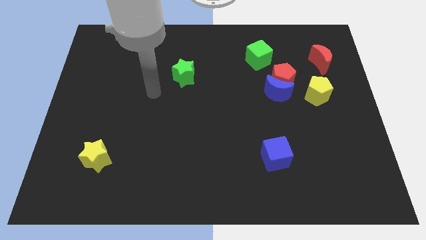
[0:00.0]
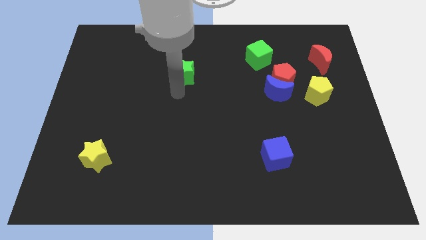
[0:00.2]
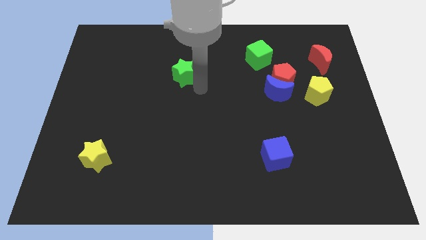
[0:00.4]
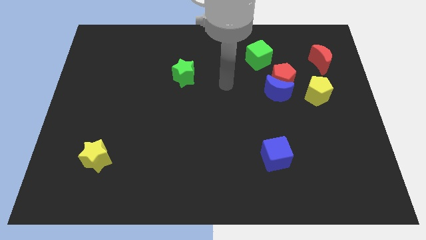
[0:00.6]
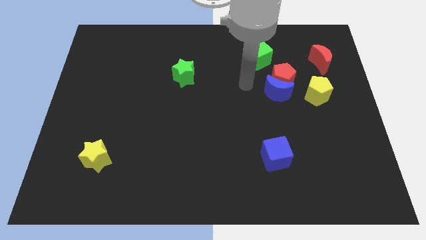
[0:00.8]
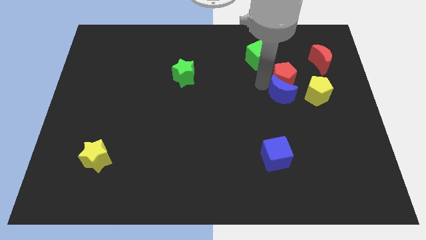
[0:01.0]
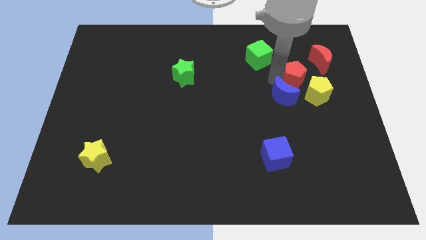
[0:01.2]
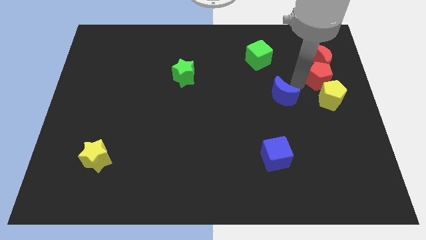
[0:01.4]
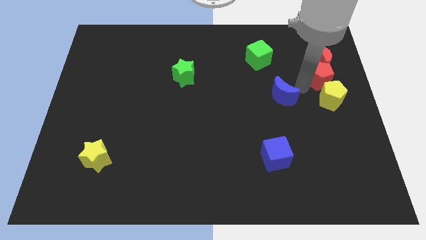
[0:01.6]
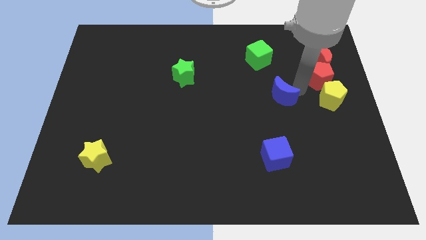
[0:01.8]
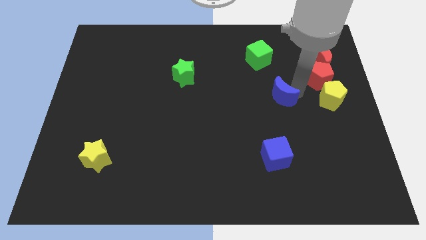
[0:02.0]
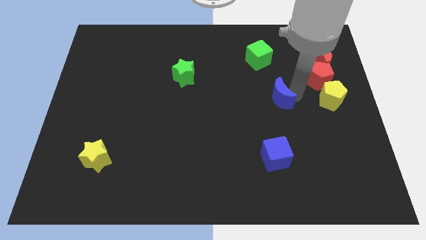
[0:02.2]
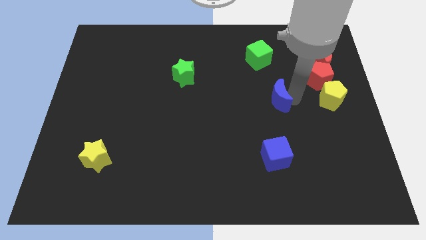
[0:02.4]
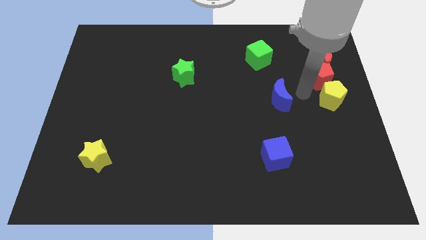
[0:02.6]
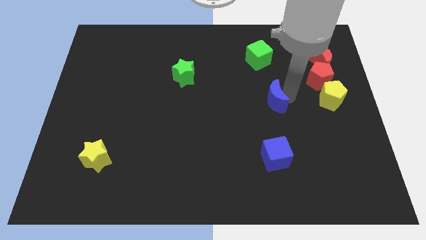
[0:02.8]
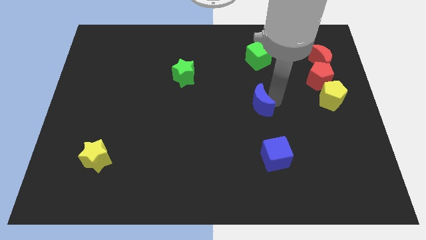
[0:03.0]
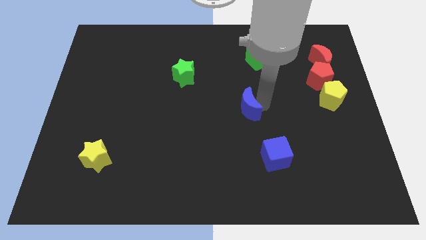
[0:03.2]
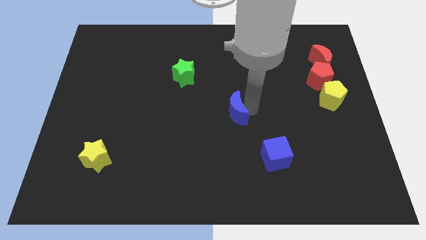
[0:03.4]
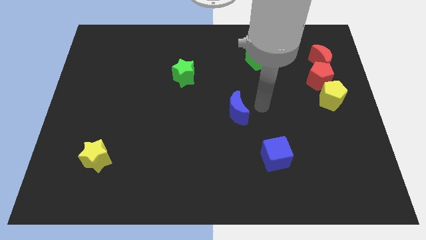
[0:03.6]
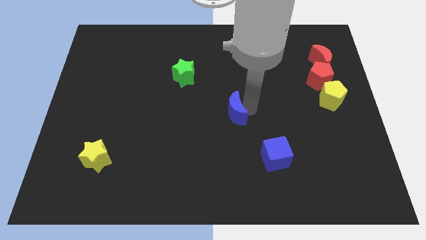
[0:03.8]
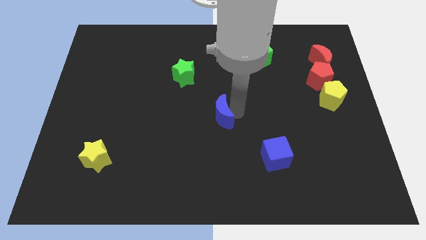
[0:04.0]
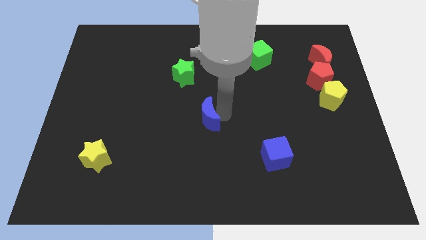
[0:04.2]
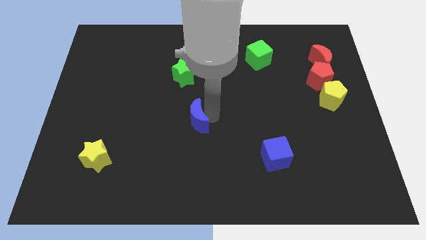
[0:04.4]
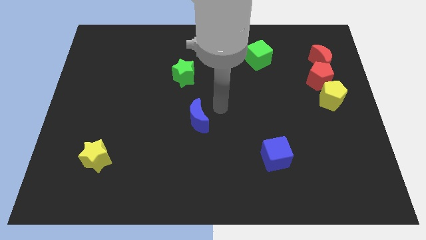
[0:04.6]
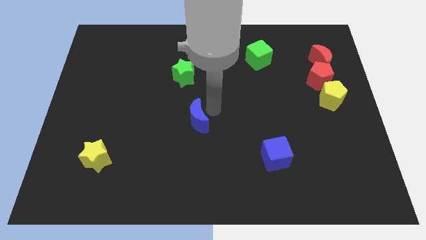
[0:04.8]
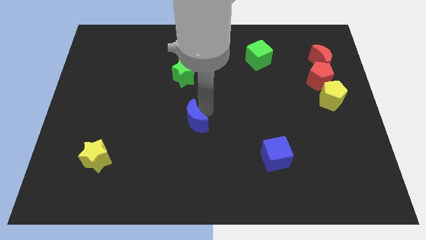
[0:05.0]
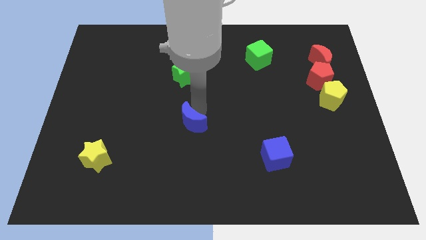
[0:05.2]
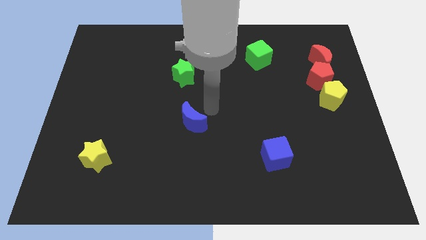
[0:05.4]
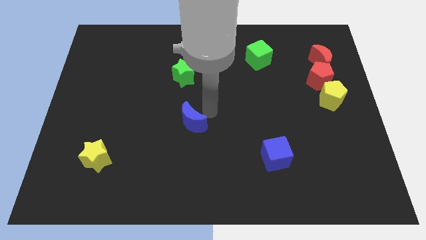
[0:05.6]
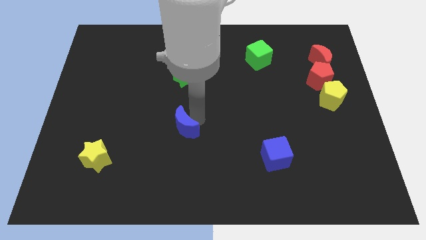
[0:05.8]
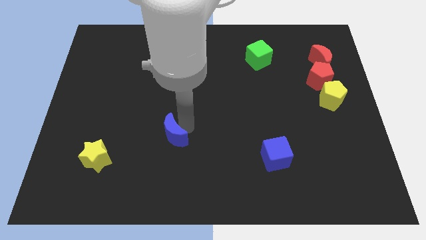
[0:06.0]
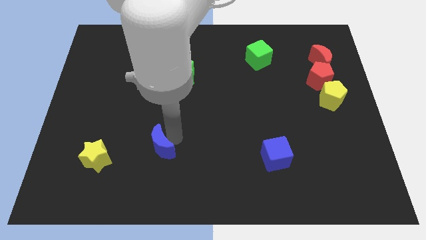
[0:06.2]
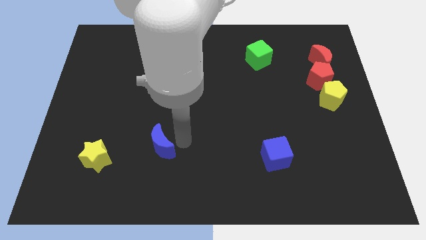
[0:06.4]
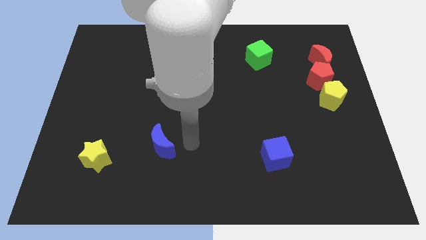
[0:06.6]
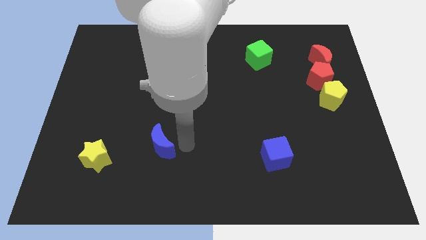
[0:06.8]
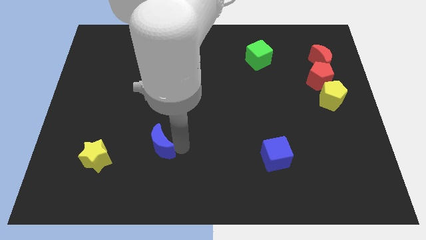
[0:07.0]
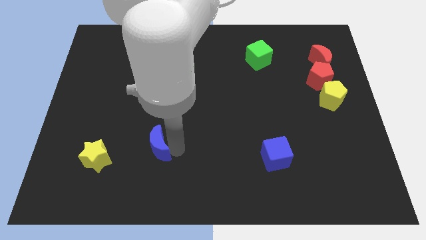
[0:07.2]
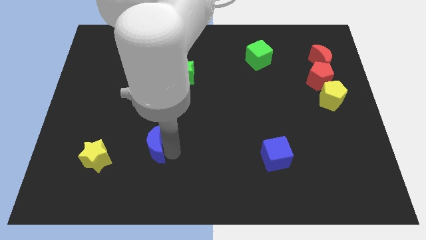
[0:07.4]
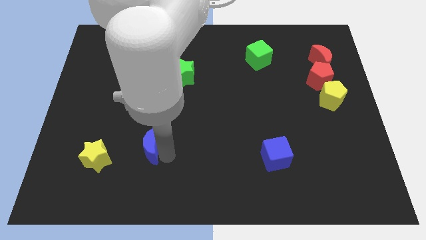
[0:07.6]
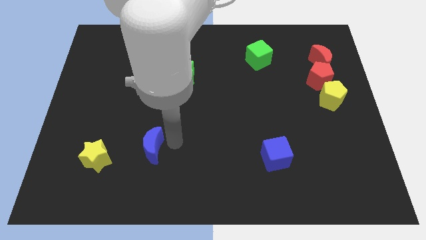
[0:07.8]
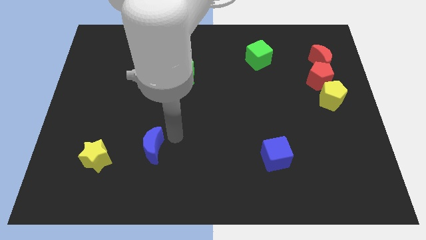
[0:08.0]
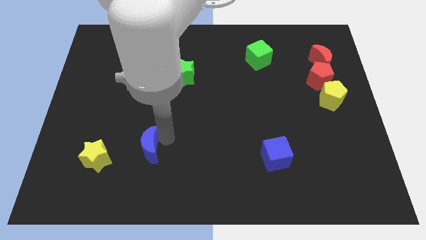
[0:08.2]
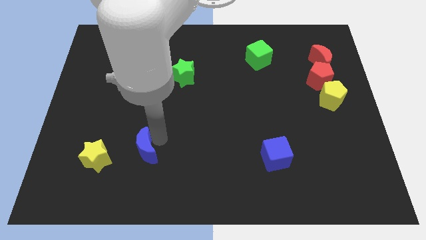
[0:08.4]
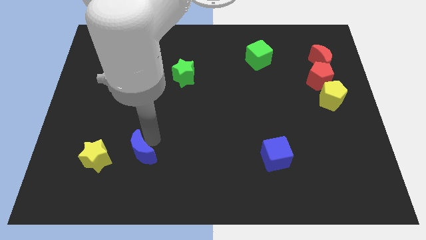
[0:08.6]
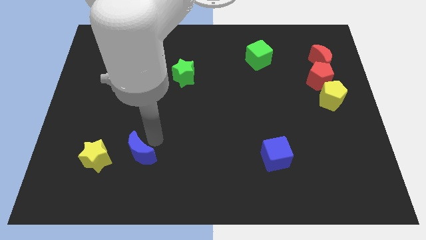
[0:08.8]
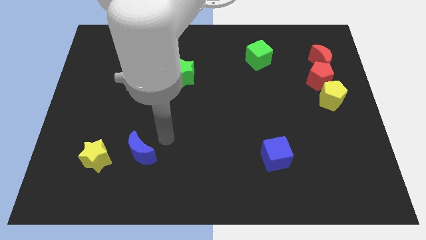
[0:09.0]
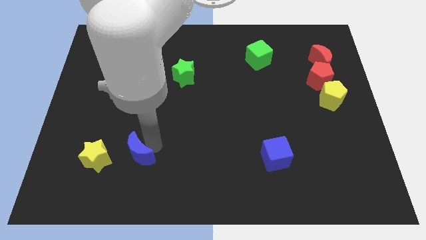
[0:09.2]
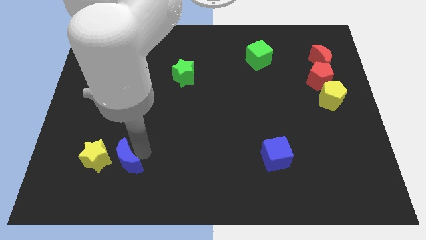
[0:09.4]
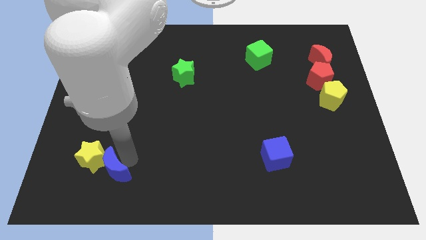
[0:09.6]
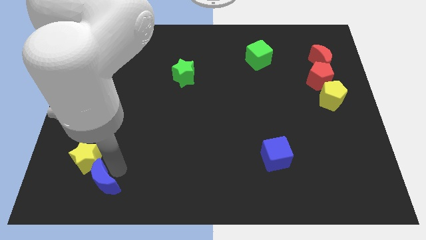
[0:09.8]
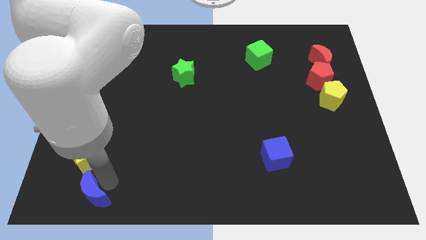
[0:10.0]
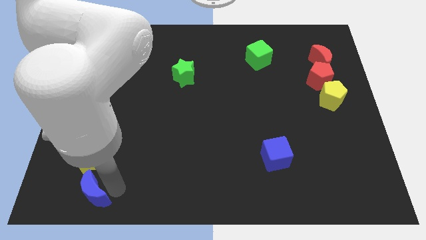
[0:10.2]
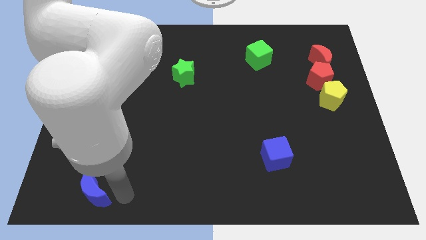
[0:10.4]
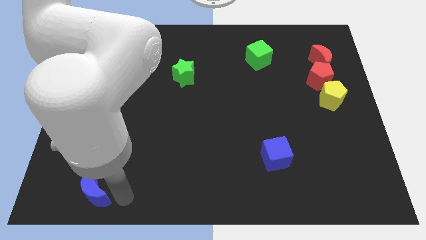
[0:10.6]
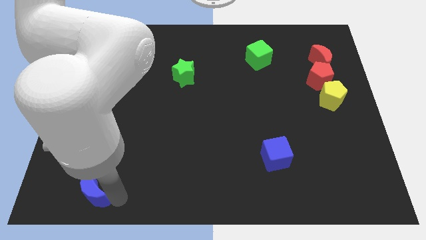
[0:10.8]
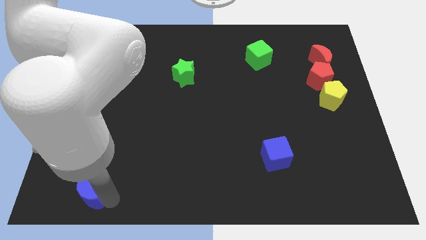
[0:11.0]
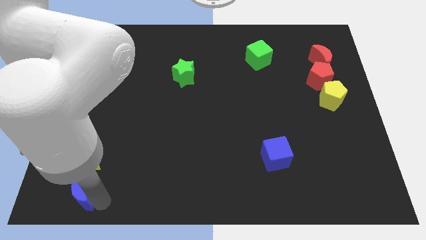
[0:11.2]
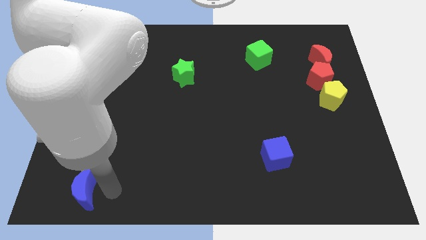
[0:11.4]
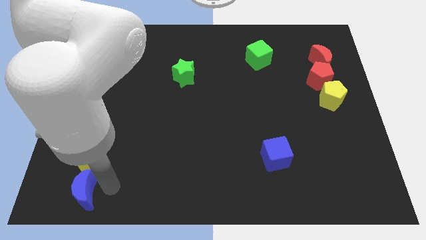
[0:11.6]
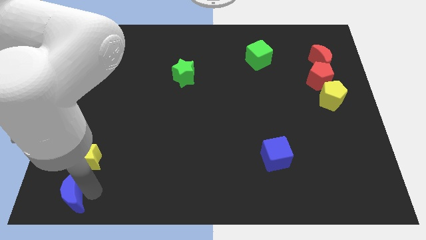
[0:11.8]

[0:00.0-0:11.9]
move the blue moon to the lower left corner

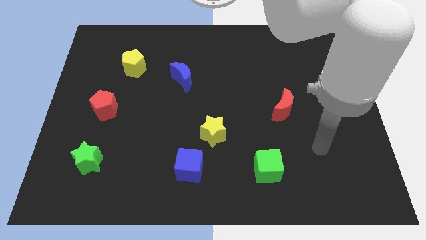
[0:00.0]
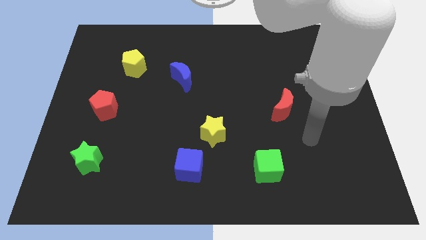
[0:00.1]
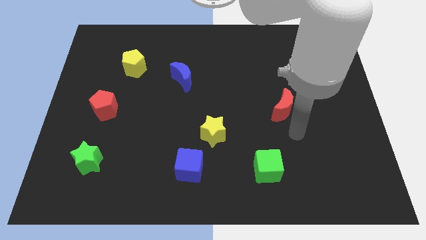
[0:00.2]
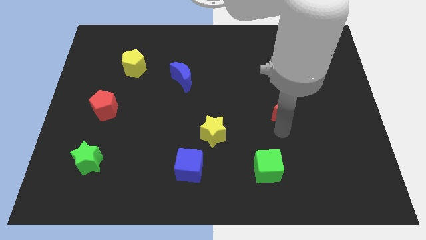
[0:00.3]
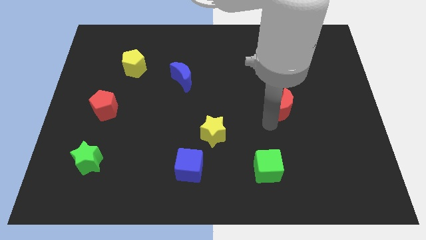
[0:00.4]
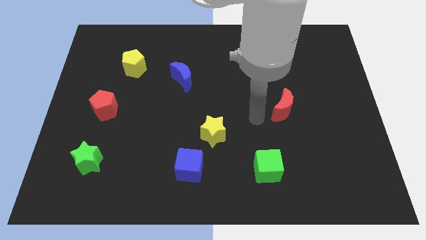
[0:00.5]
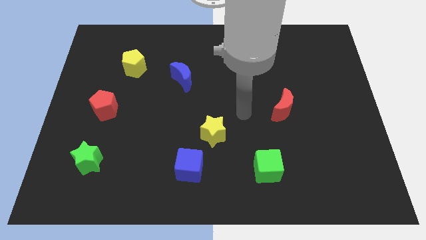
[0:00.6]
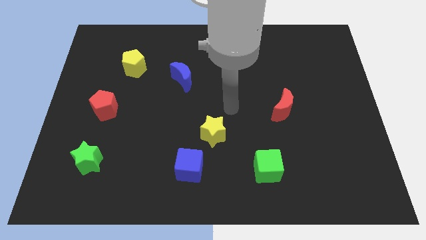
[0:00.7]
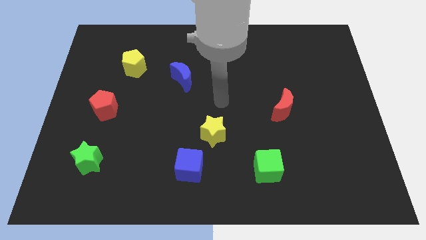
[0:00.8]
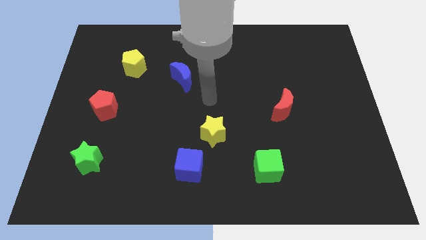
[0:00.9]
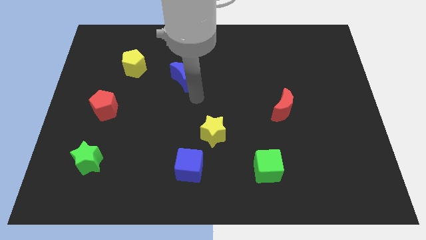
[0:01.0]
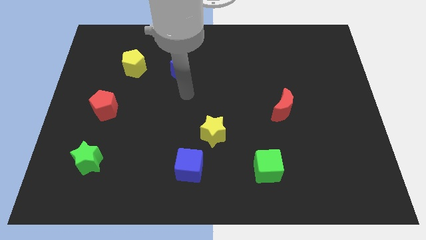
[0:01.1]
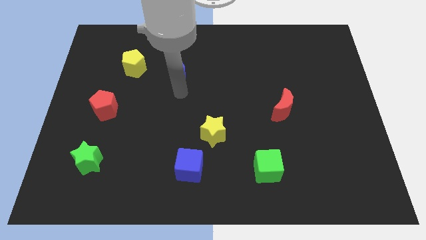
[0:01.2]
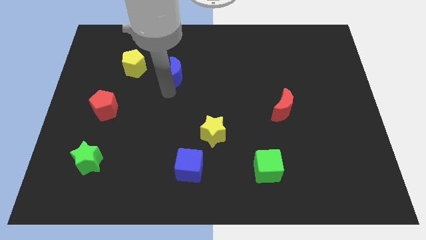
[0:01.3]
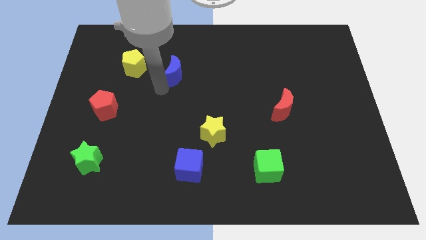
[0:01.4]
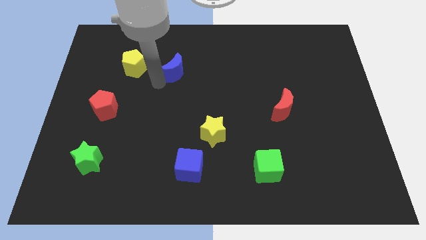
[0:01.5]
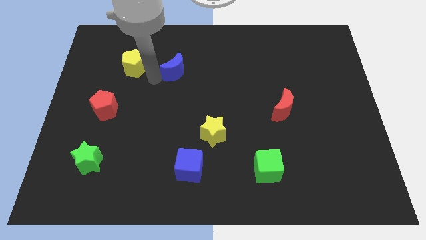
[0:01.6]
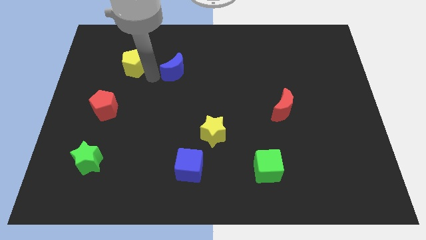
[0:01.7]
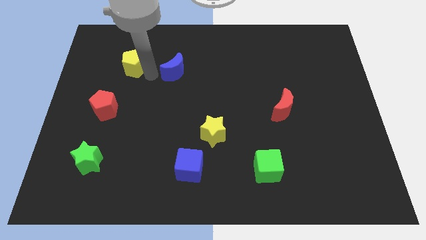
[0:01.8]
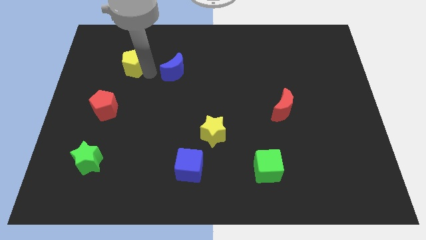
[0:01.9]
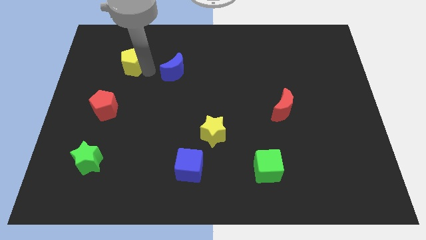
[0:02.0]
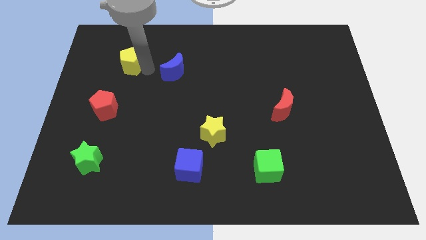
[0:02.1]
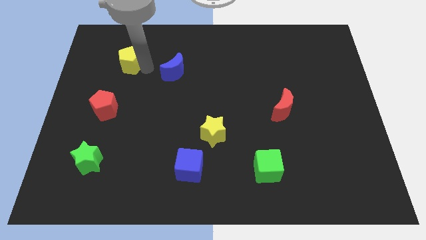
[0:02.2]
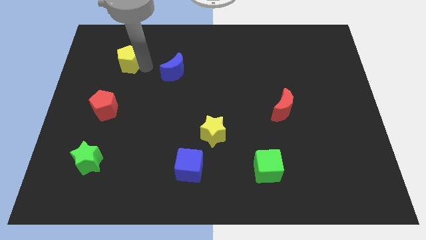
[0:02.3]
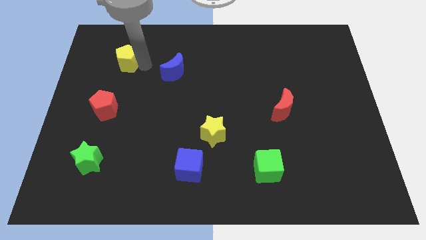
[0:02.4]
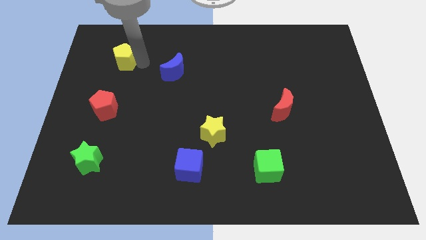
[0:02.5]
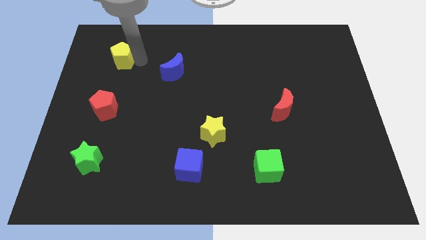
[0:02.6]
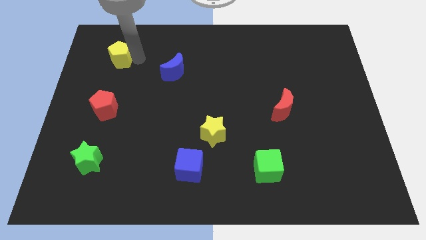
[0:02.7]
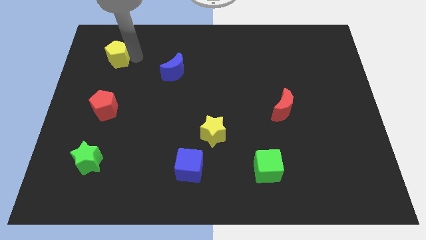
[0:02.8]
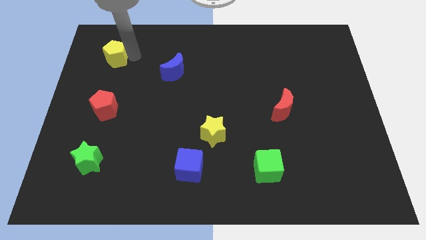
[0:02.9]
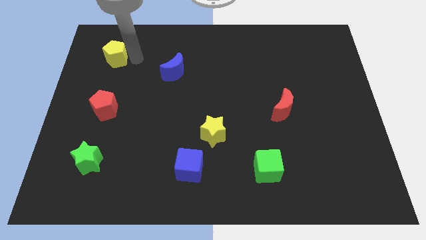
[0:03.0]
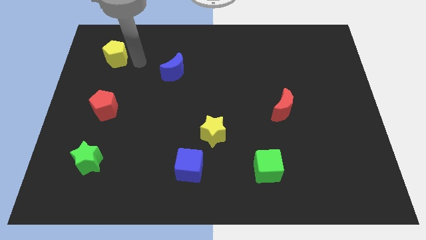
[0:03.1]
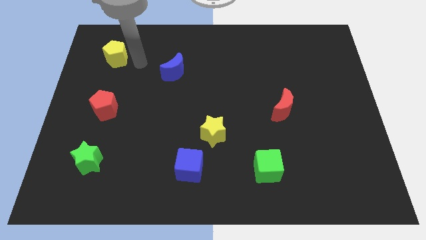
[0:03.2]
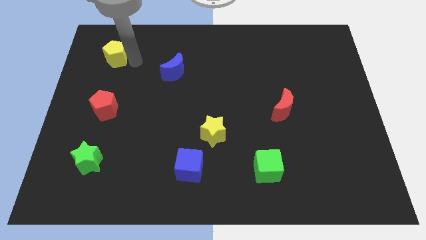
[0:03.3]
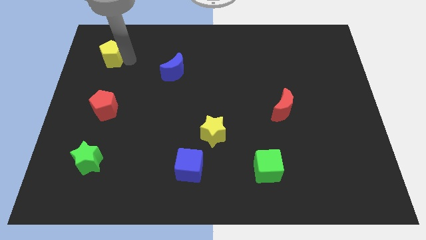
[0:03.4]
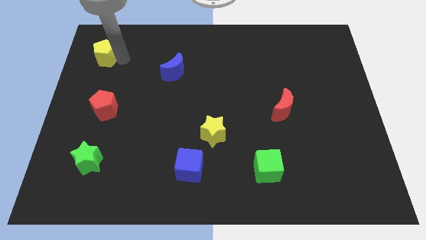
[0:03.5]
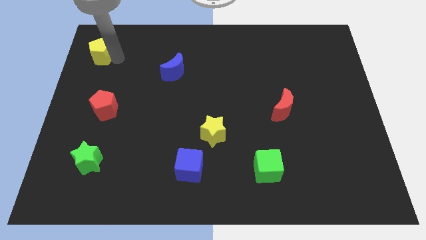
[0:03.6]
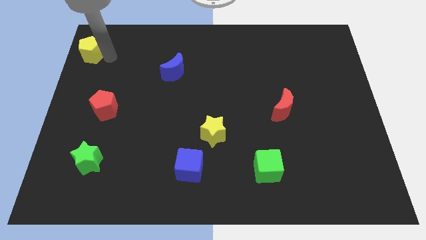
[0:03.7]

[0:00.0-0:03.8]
move the yellow pentagon to the top left
